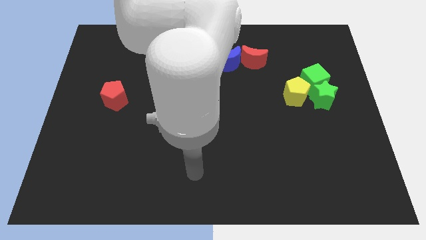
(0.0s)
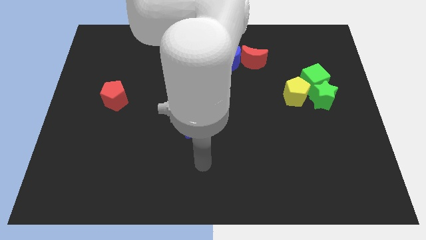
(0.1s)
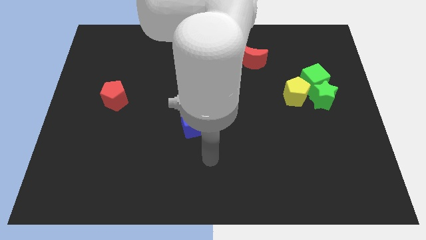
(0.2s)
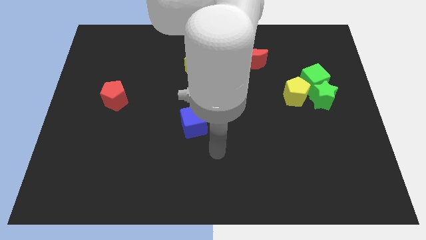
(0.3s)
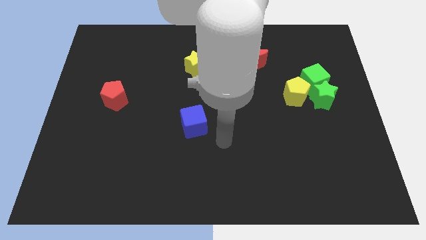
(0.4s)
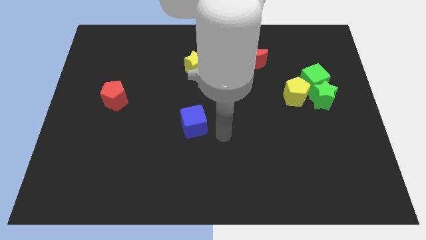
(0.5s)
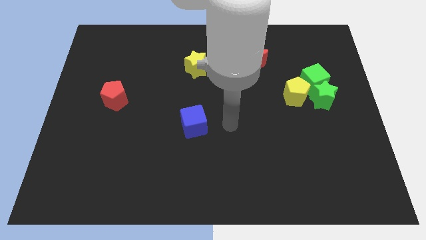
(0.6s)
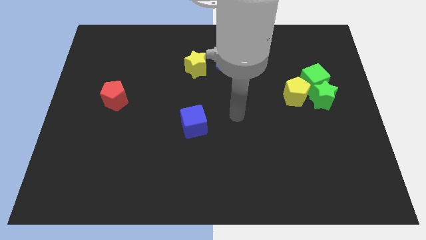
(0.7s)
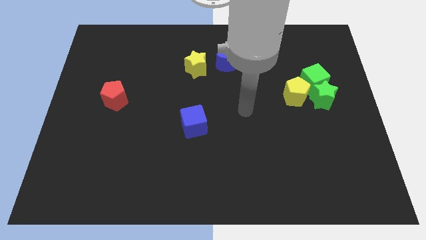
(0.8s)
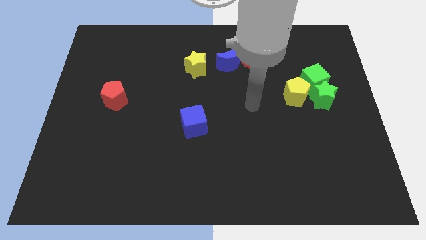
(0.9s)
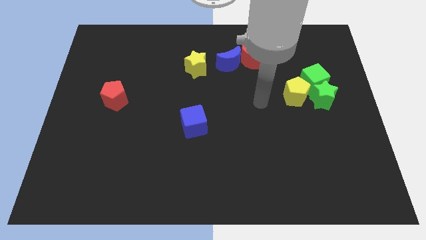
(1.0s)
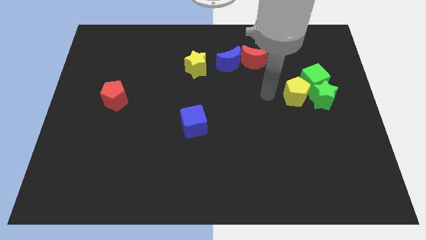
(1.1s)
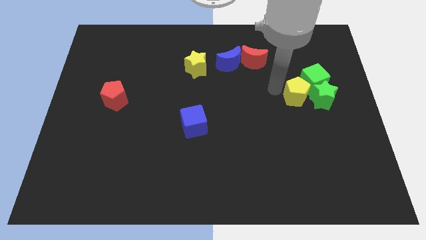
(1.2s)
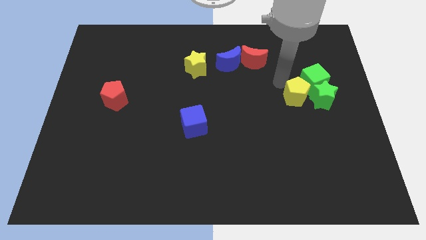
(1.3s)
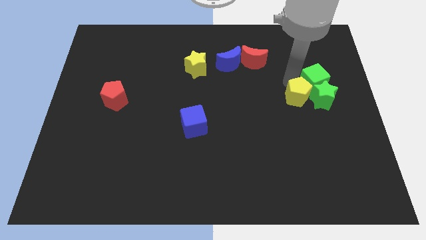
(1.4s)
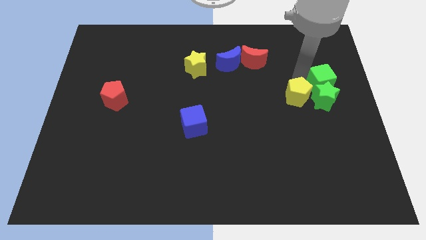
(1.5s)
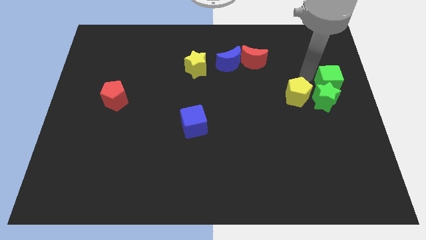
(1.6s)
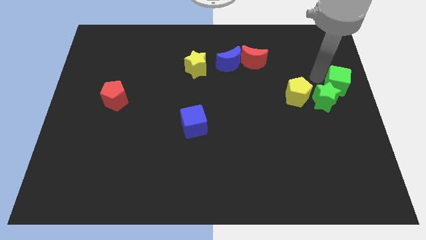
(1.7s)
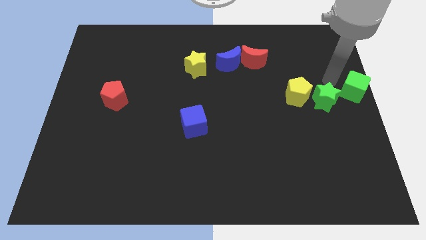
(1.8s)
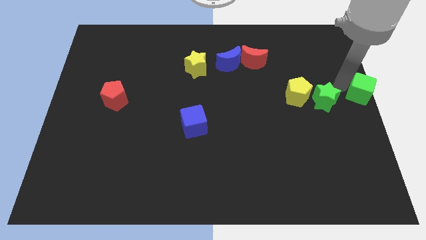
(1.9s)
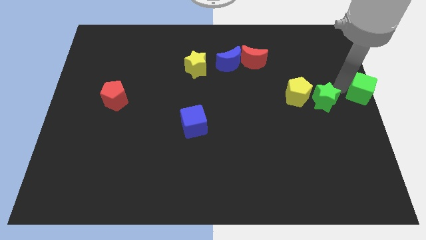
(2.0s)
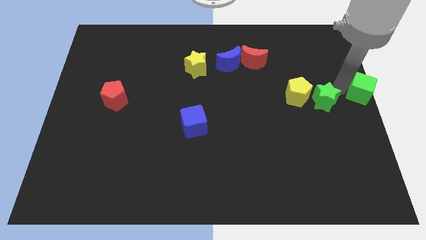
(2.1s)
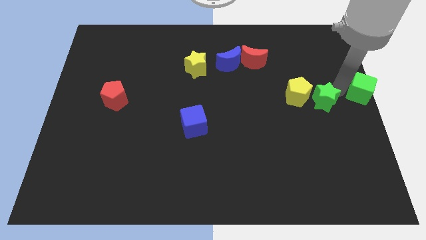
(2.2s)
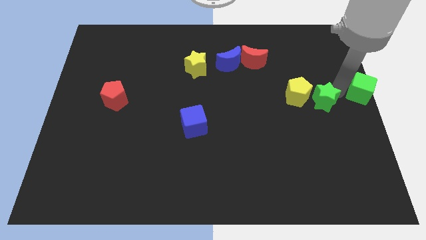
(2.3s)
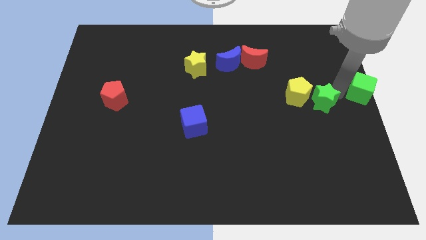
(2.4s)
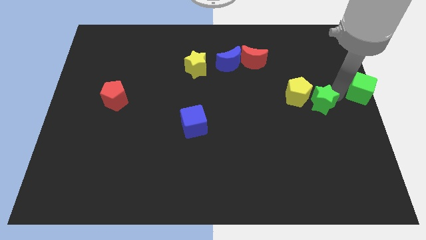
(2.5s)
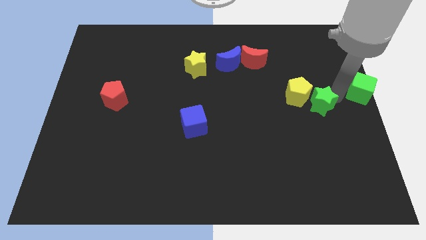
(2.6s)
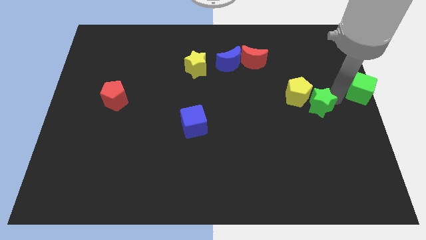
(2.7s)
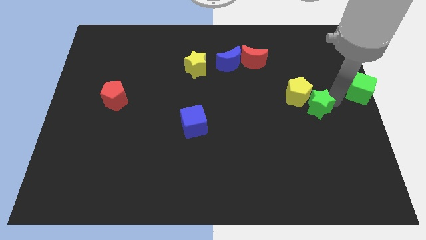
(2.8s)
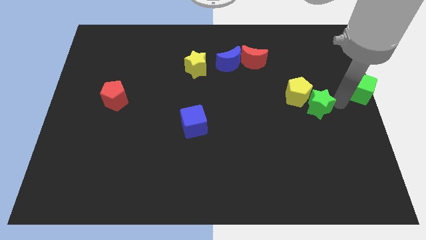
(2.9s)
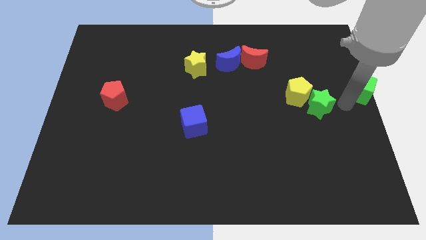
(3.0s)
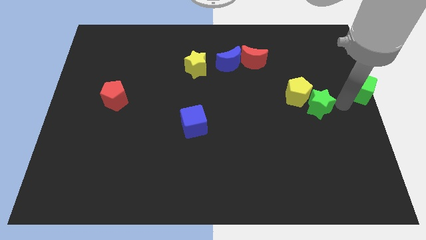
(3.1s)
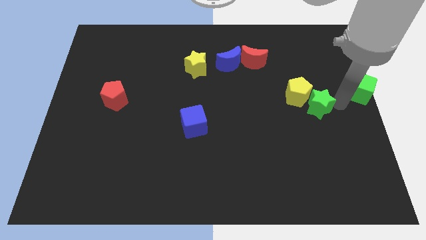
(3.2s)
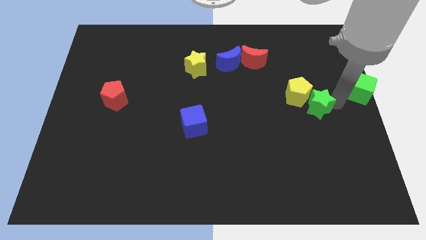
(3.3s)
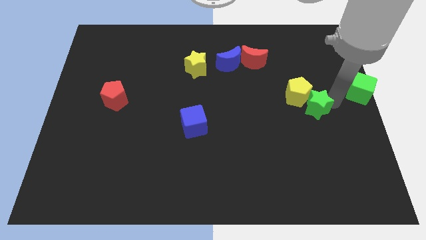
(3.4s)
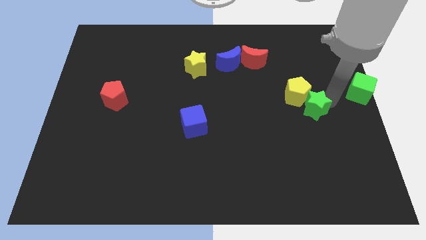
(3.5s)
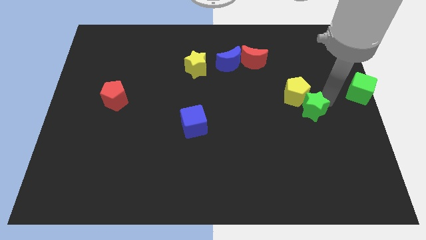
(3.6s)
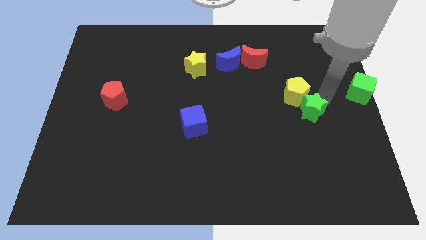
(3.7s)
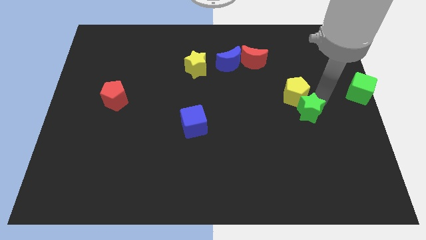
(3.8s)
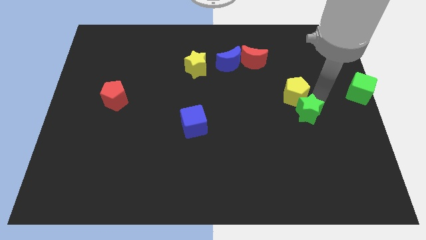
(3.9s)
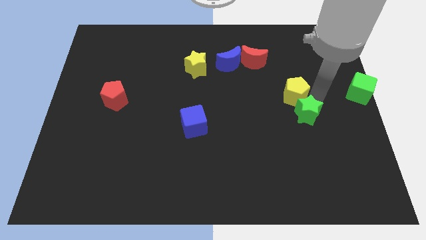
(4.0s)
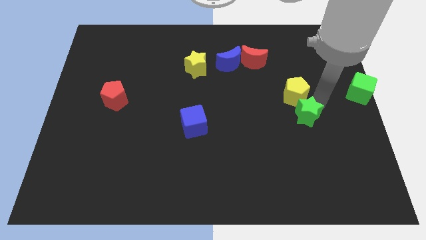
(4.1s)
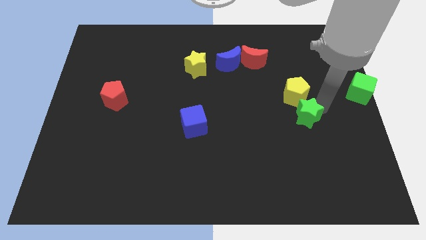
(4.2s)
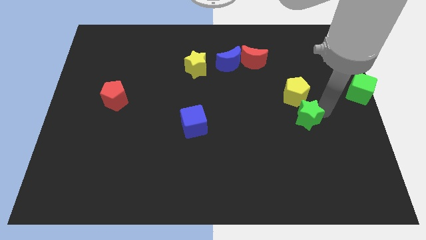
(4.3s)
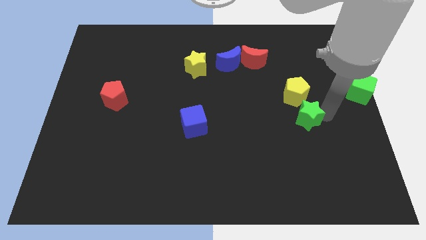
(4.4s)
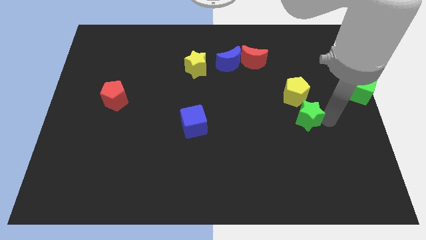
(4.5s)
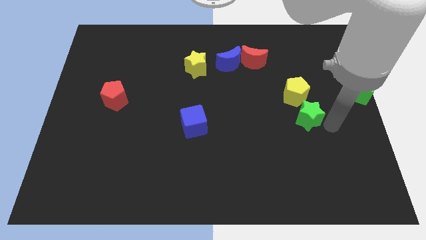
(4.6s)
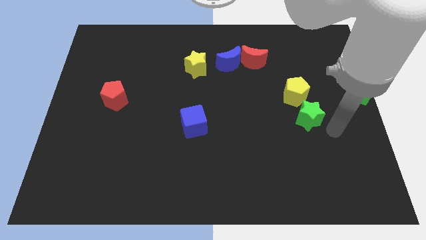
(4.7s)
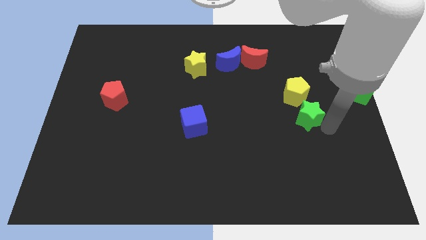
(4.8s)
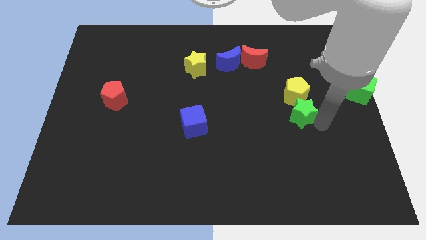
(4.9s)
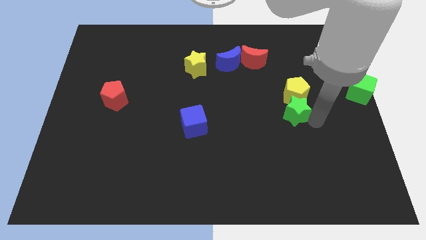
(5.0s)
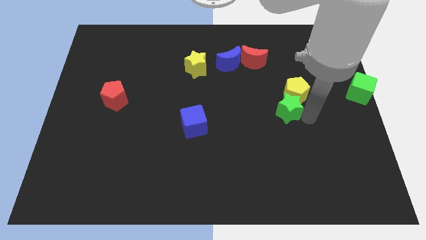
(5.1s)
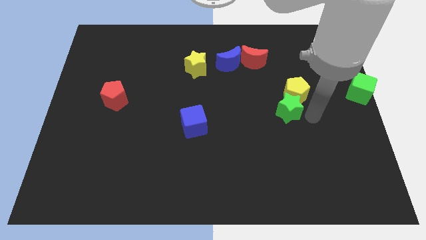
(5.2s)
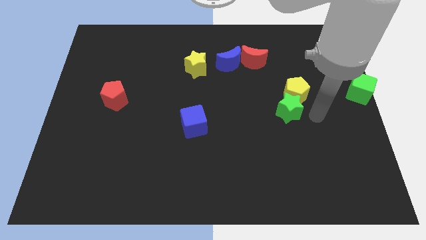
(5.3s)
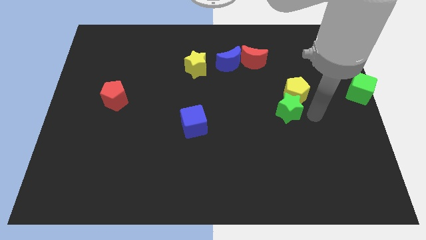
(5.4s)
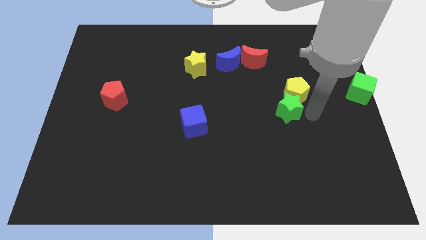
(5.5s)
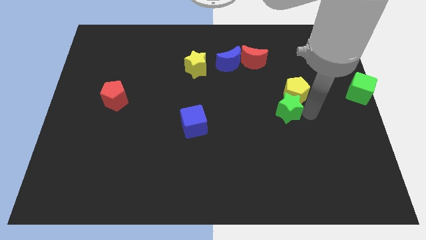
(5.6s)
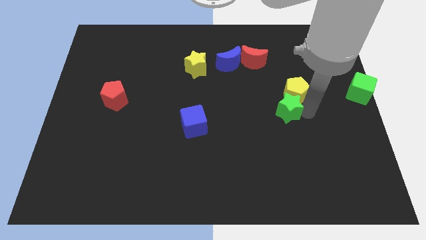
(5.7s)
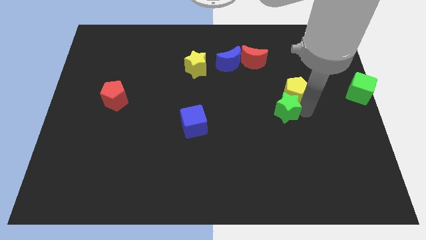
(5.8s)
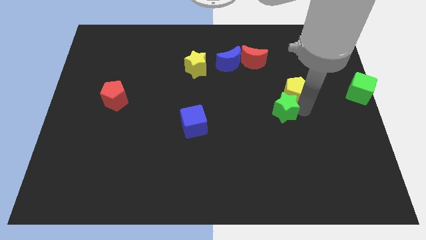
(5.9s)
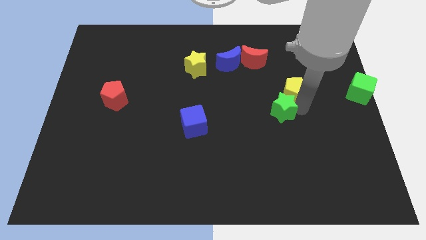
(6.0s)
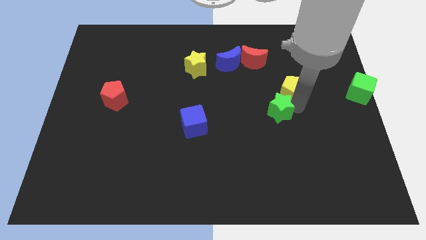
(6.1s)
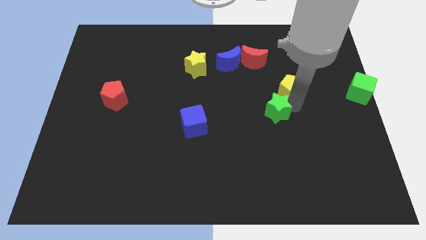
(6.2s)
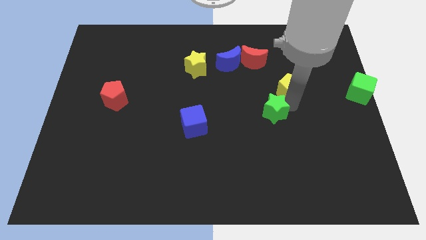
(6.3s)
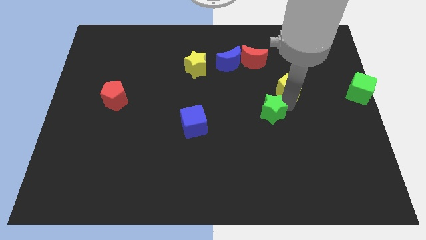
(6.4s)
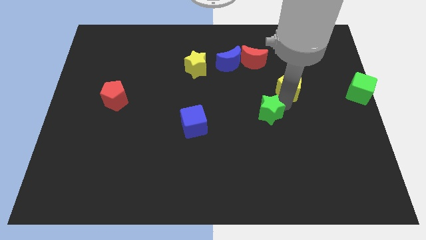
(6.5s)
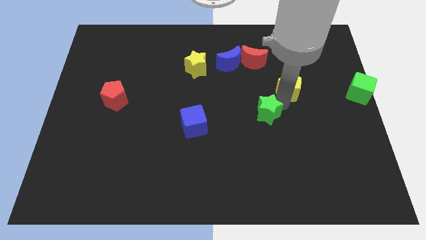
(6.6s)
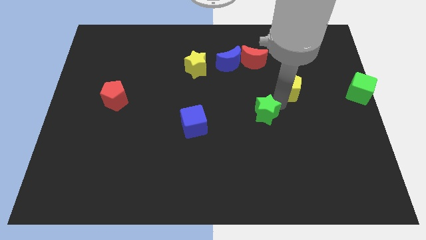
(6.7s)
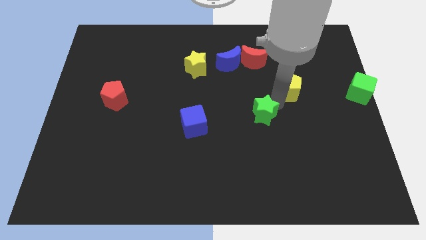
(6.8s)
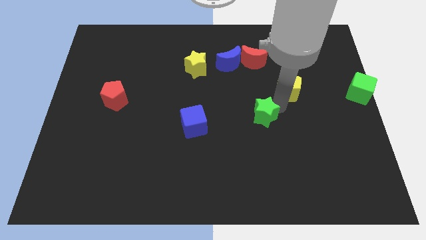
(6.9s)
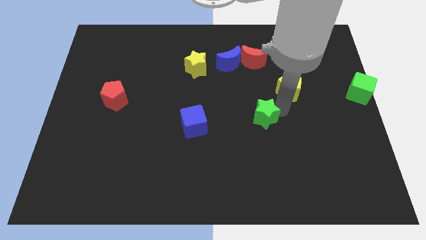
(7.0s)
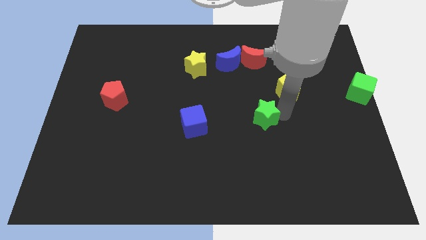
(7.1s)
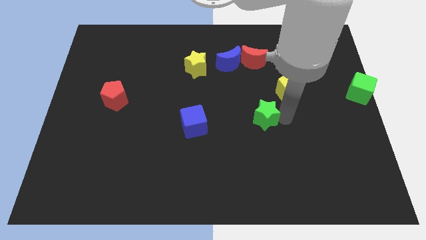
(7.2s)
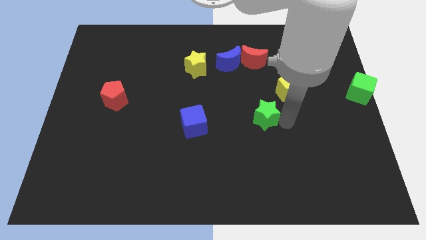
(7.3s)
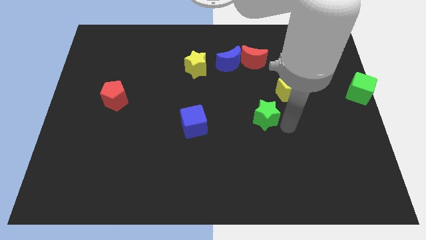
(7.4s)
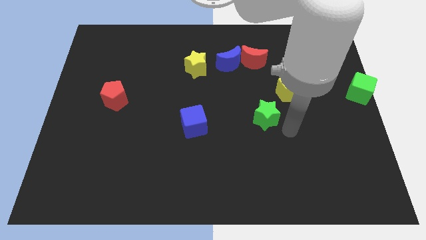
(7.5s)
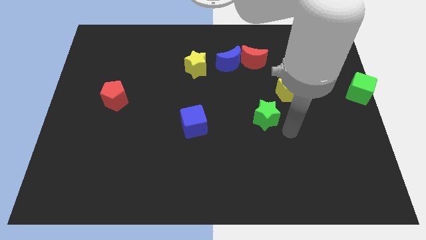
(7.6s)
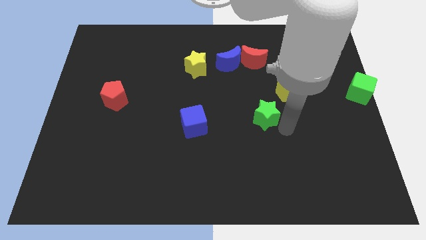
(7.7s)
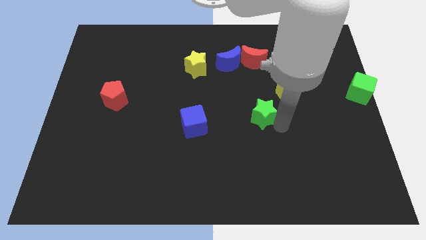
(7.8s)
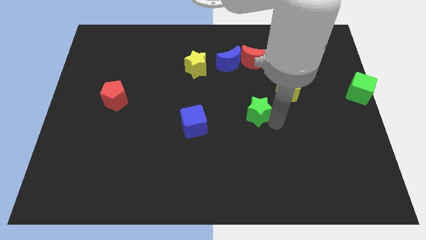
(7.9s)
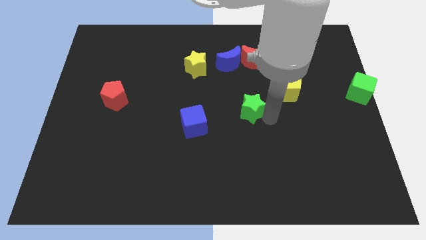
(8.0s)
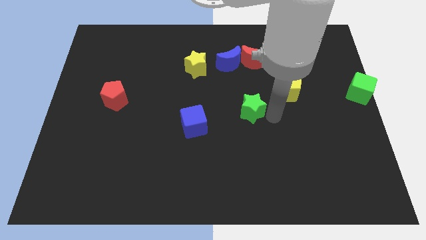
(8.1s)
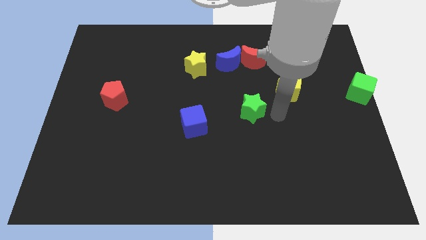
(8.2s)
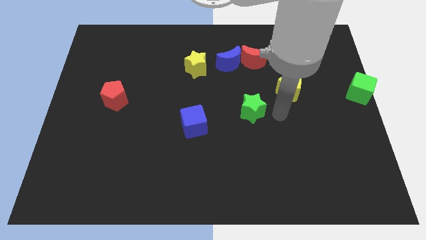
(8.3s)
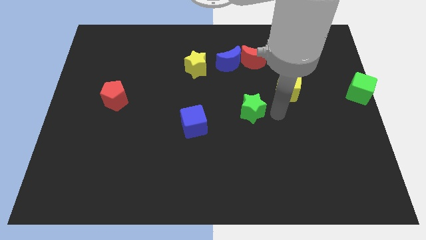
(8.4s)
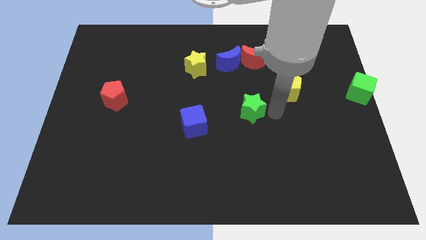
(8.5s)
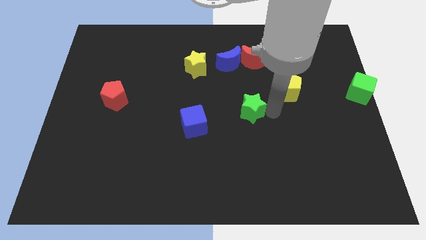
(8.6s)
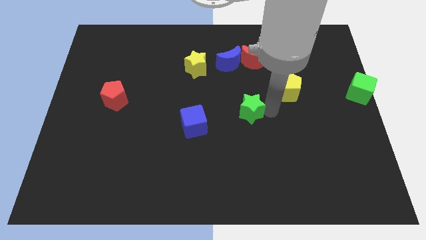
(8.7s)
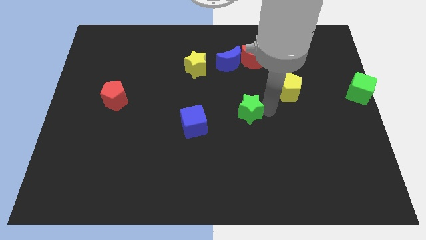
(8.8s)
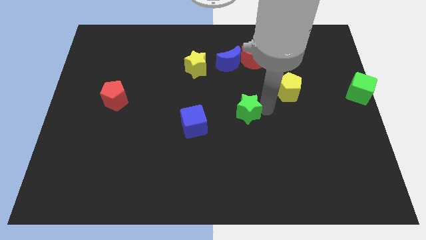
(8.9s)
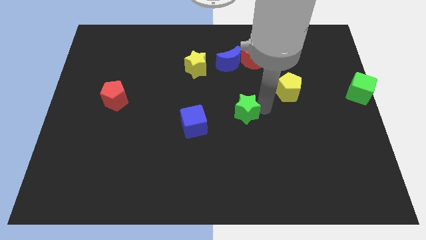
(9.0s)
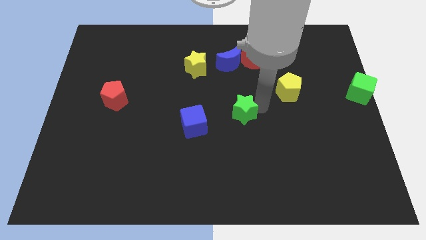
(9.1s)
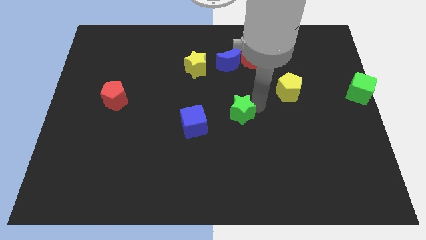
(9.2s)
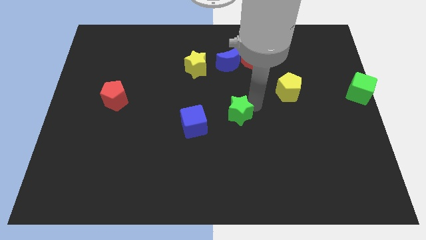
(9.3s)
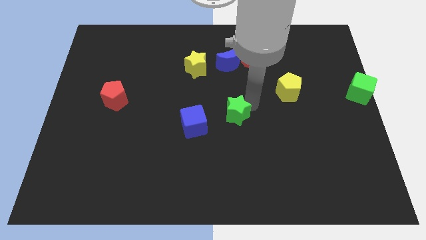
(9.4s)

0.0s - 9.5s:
slide the green star left
